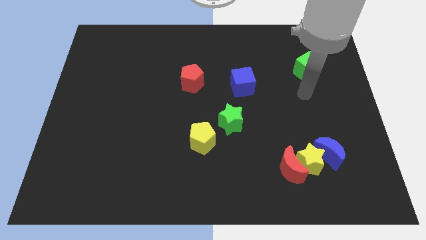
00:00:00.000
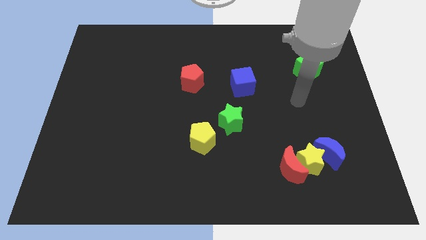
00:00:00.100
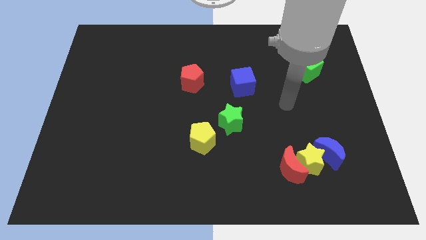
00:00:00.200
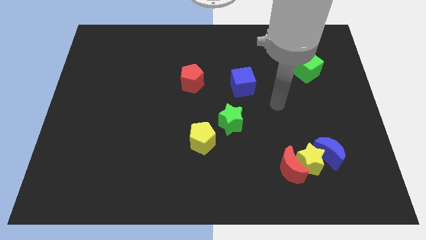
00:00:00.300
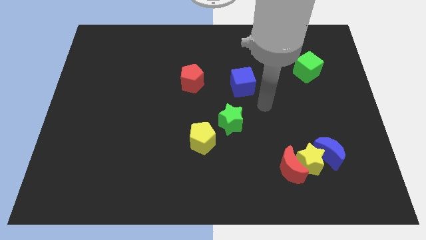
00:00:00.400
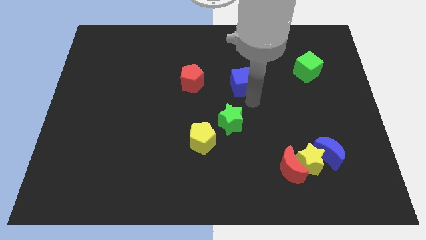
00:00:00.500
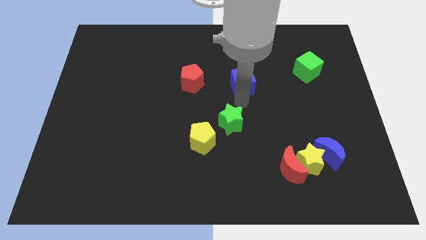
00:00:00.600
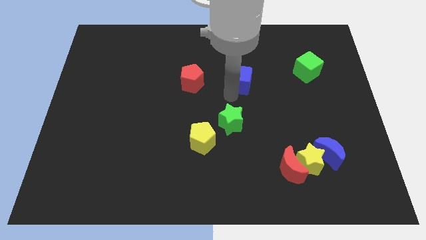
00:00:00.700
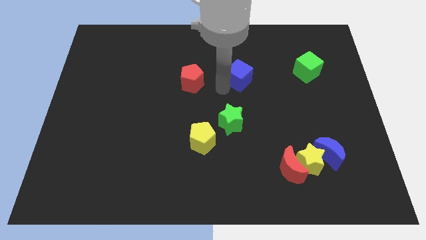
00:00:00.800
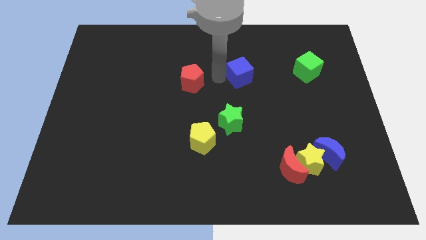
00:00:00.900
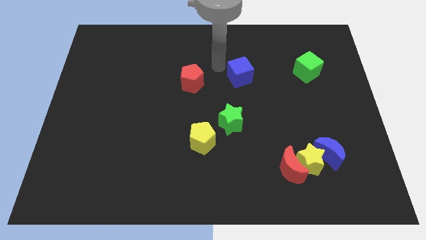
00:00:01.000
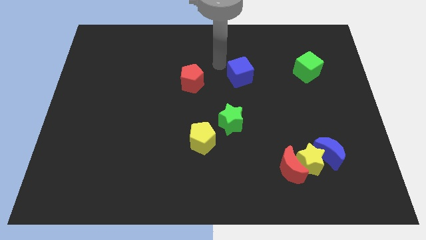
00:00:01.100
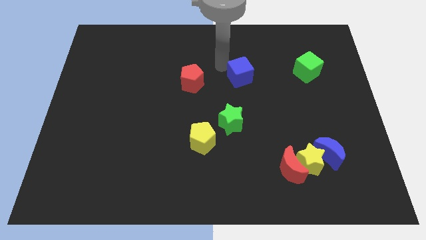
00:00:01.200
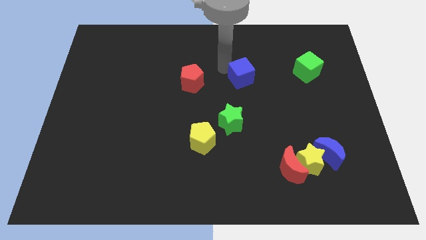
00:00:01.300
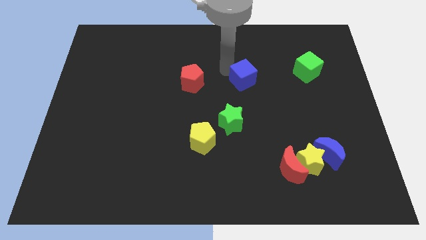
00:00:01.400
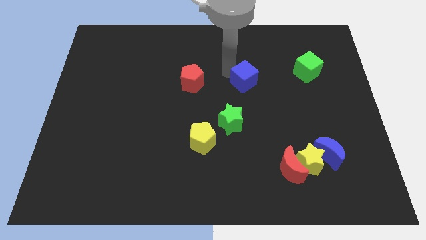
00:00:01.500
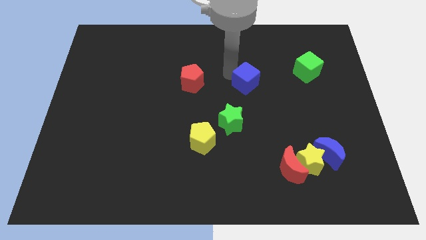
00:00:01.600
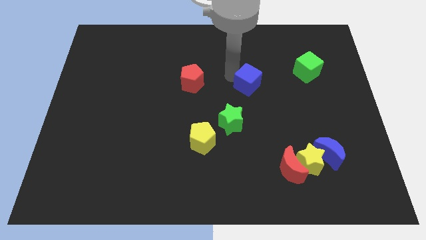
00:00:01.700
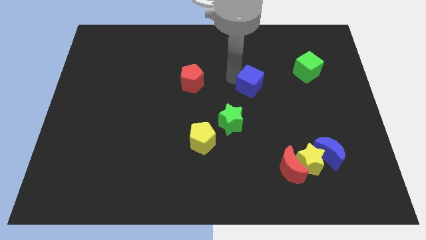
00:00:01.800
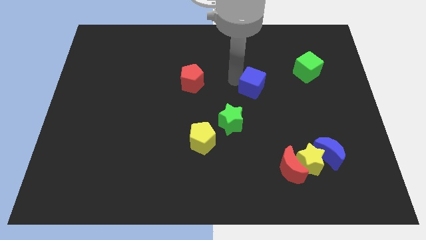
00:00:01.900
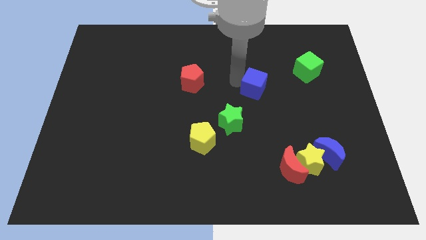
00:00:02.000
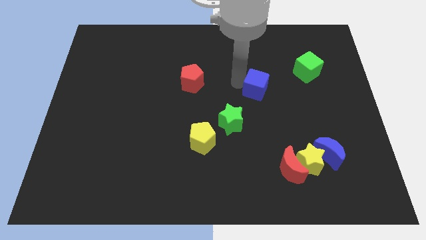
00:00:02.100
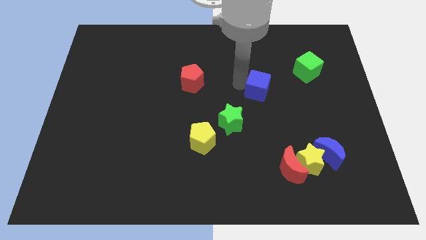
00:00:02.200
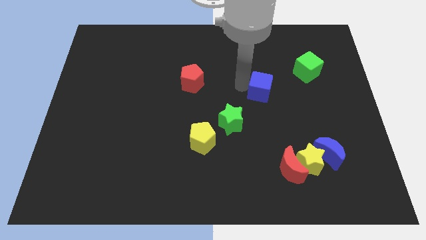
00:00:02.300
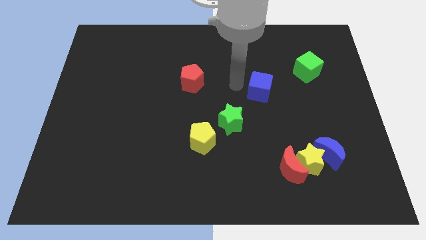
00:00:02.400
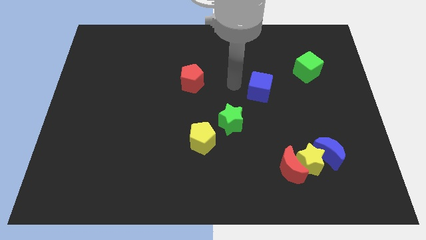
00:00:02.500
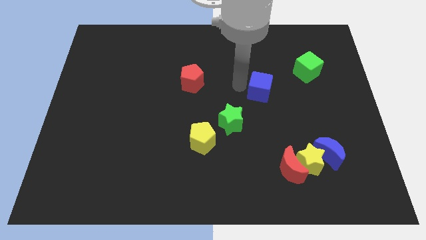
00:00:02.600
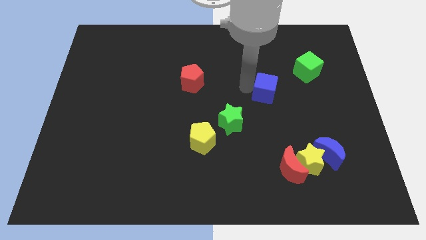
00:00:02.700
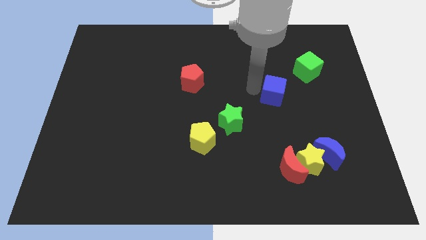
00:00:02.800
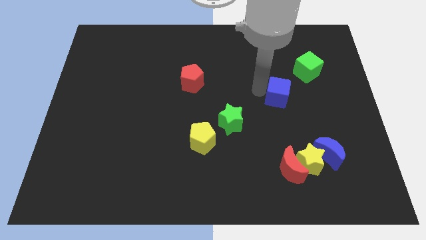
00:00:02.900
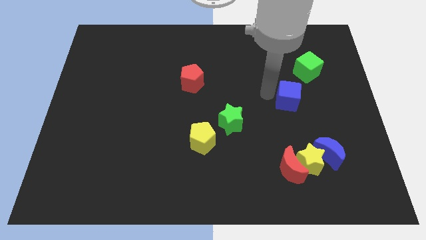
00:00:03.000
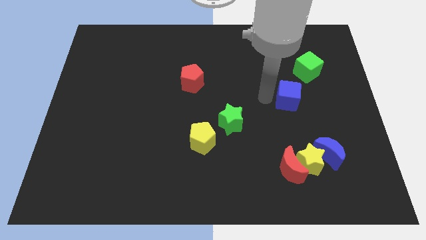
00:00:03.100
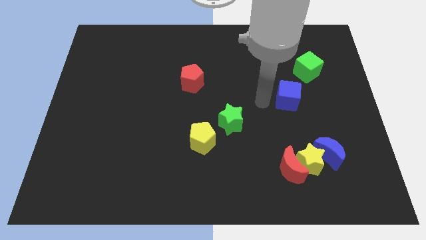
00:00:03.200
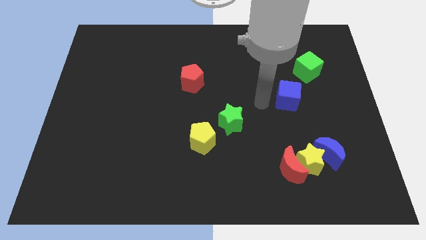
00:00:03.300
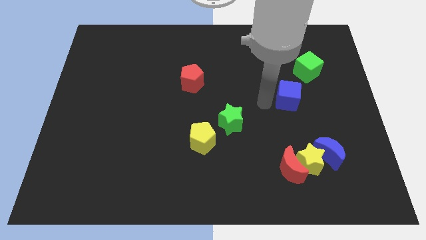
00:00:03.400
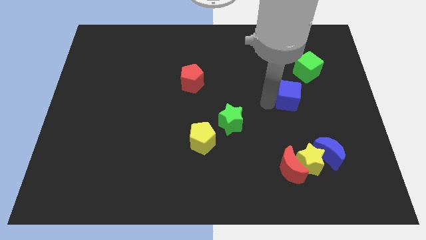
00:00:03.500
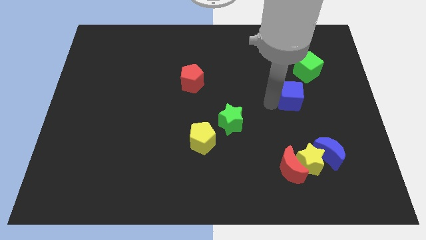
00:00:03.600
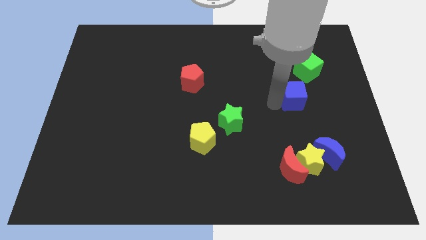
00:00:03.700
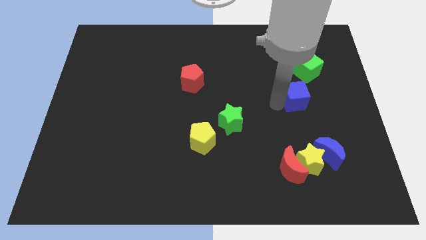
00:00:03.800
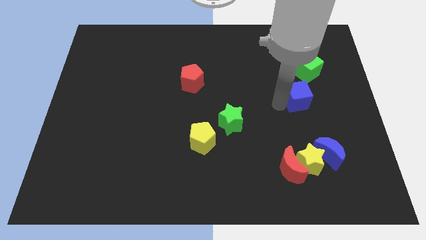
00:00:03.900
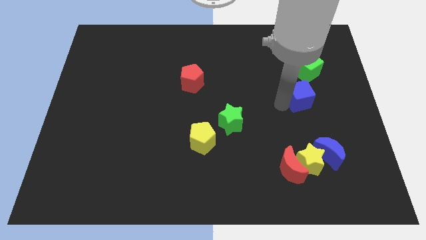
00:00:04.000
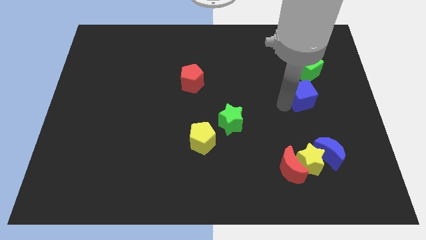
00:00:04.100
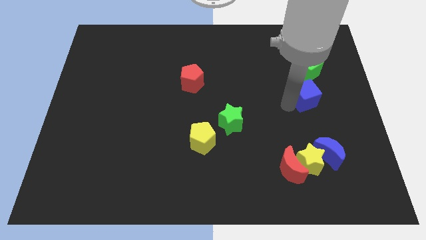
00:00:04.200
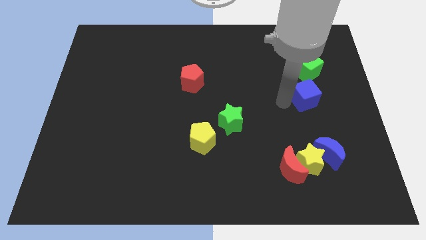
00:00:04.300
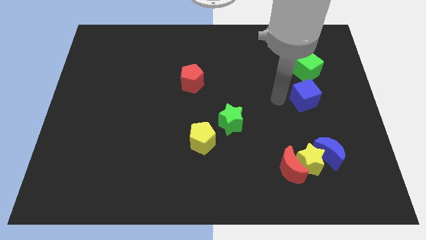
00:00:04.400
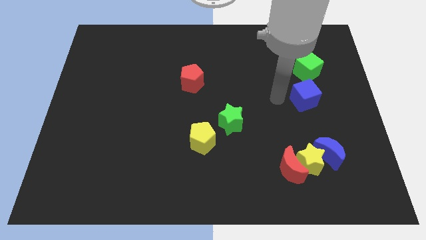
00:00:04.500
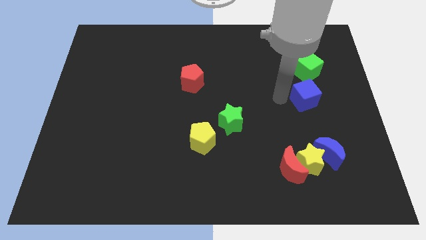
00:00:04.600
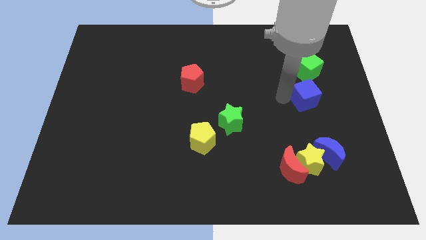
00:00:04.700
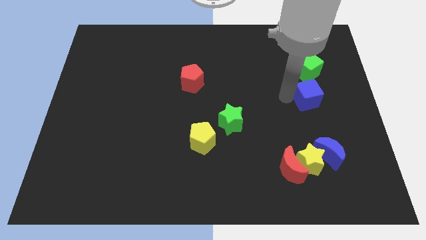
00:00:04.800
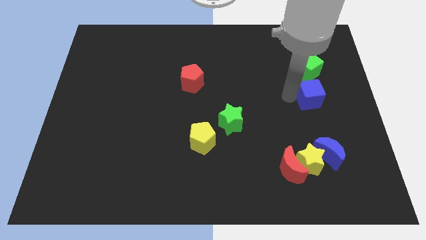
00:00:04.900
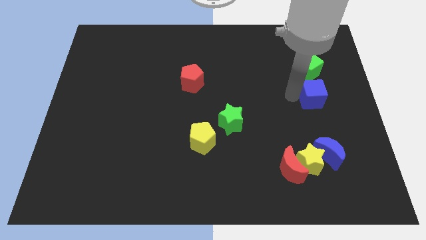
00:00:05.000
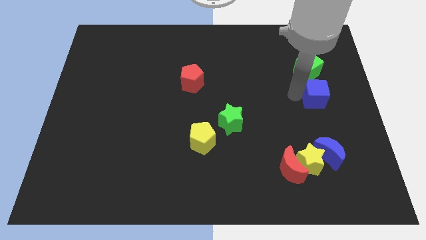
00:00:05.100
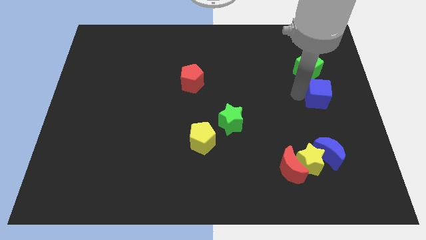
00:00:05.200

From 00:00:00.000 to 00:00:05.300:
slide the blue cube to the right side

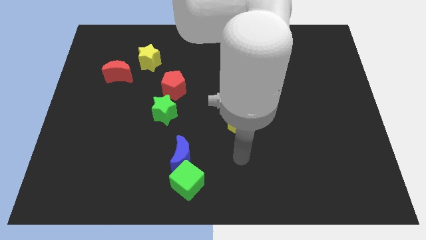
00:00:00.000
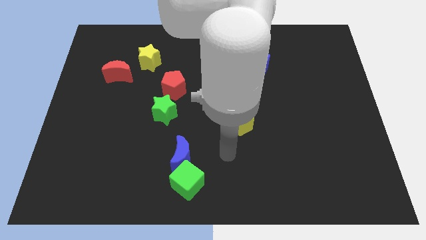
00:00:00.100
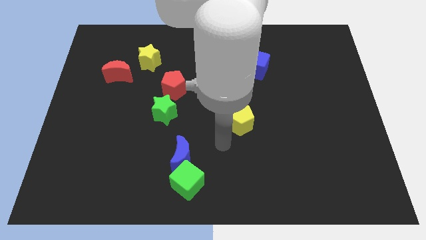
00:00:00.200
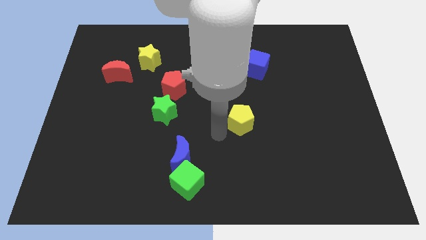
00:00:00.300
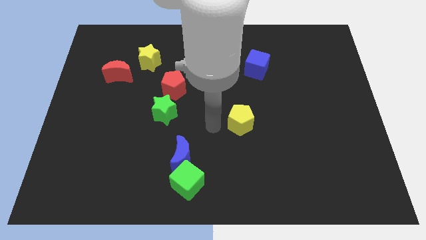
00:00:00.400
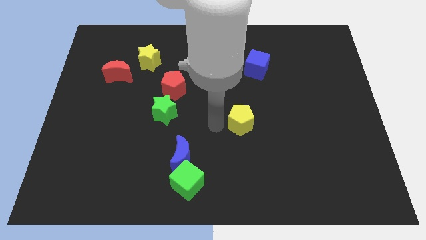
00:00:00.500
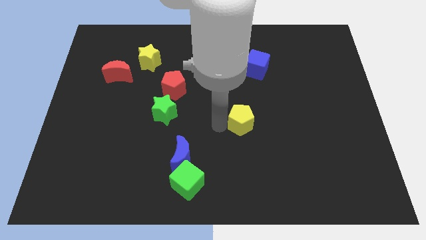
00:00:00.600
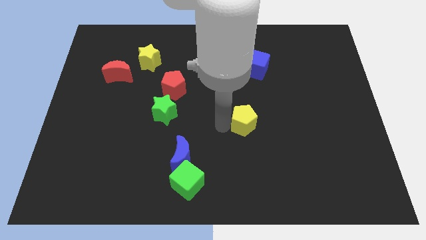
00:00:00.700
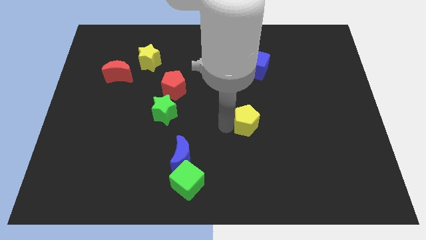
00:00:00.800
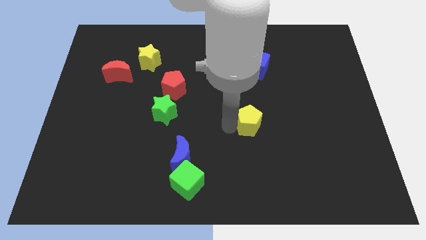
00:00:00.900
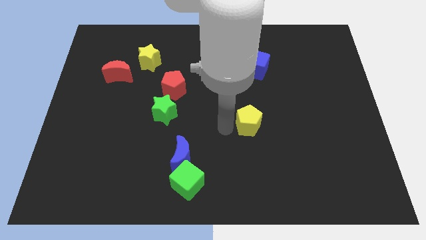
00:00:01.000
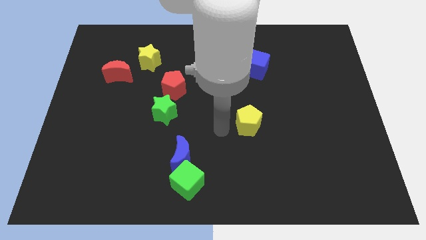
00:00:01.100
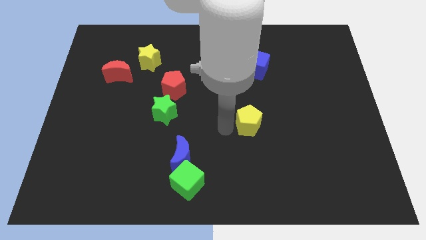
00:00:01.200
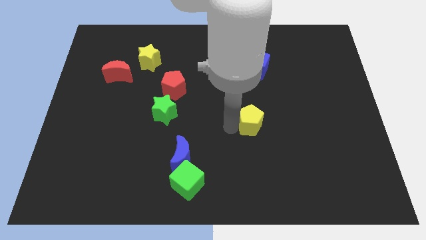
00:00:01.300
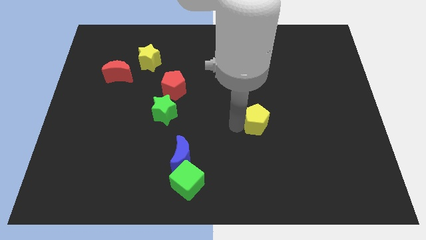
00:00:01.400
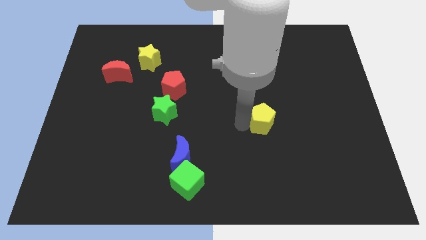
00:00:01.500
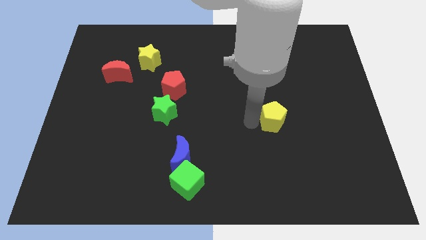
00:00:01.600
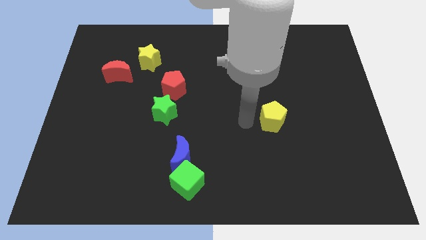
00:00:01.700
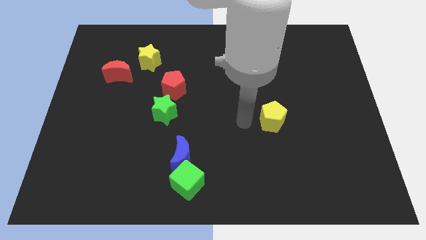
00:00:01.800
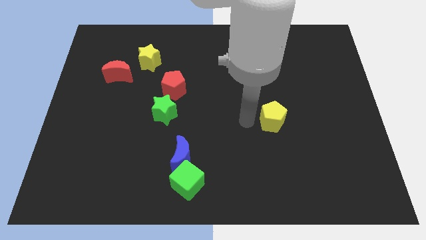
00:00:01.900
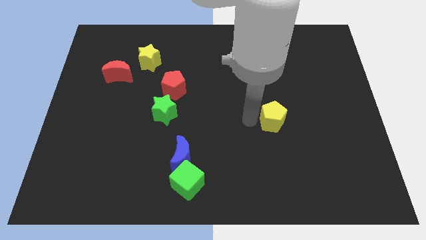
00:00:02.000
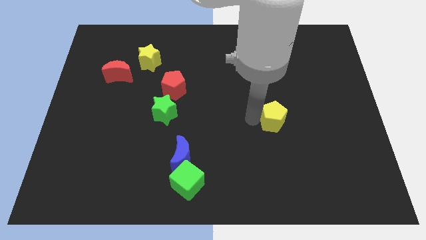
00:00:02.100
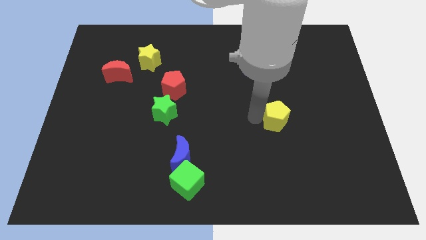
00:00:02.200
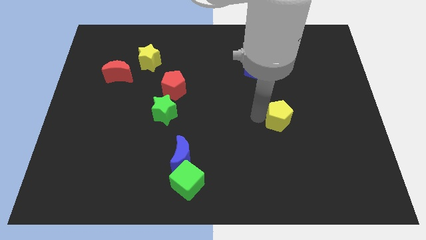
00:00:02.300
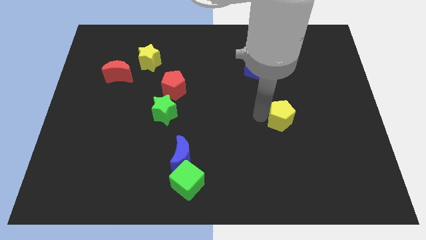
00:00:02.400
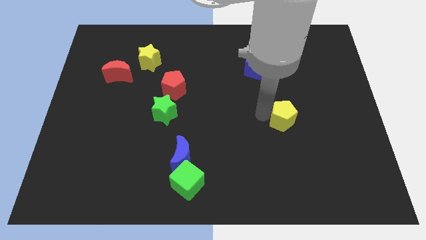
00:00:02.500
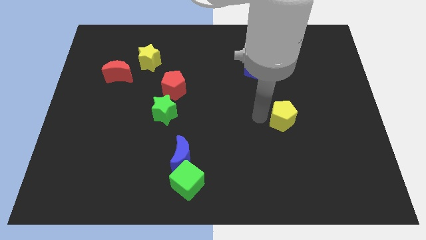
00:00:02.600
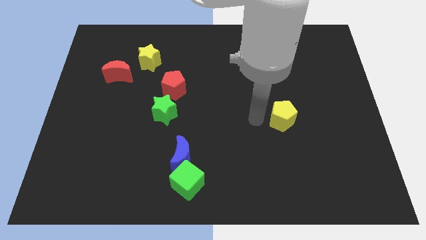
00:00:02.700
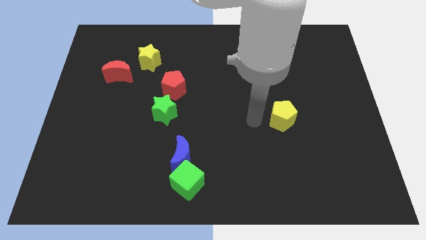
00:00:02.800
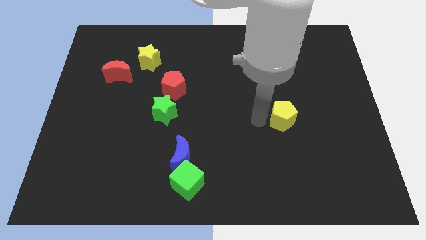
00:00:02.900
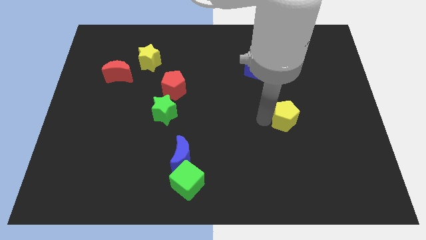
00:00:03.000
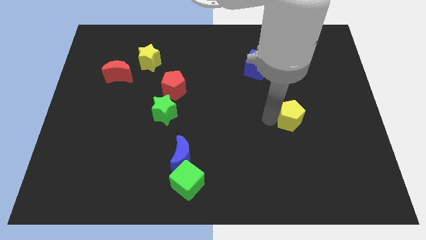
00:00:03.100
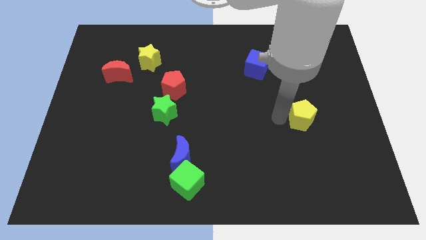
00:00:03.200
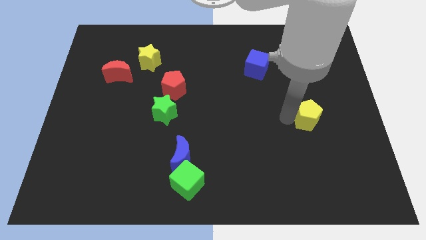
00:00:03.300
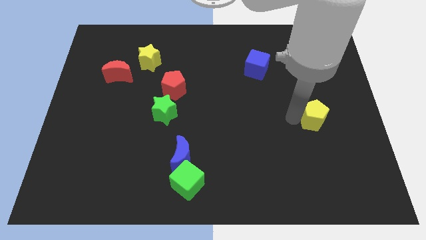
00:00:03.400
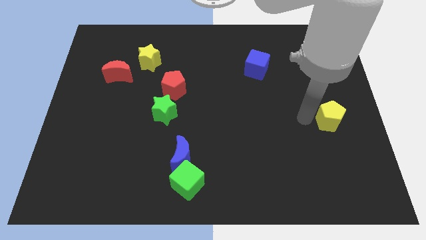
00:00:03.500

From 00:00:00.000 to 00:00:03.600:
put the yellow pentagon to the right side of the board
